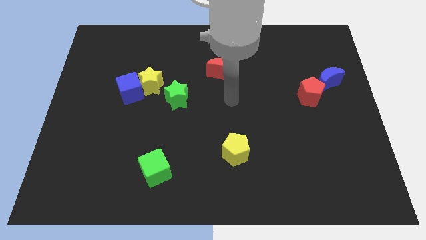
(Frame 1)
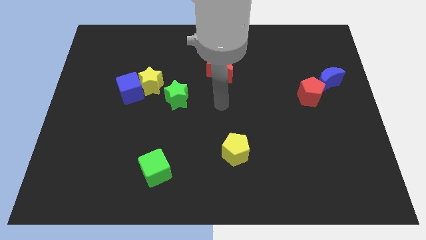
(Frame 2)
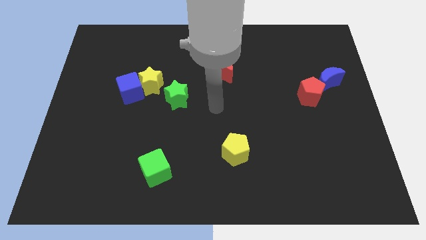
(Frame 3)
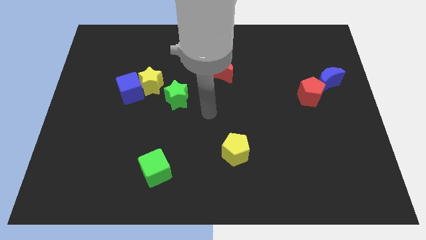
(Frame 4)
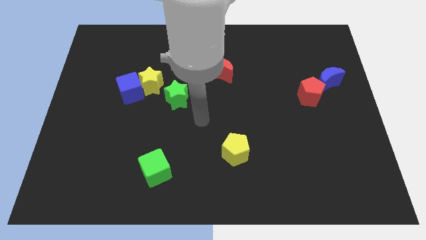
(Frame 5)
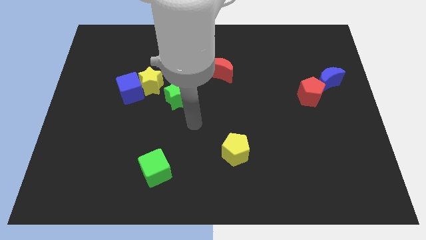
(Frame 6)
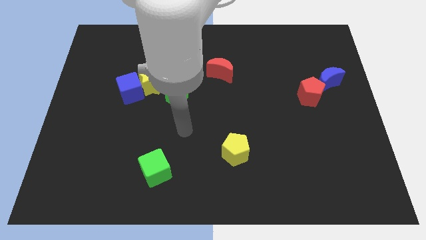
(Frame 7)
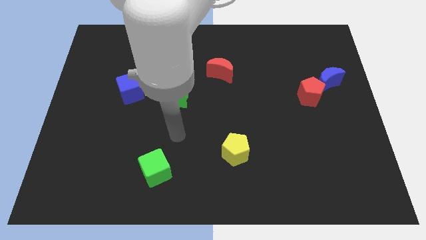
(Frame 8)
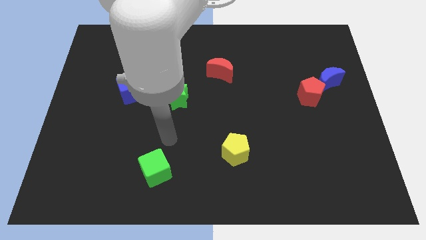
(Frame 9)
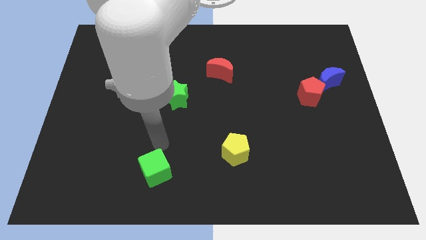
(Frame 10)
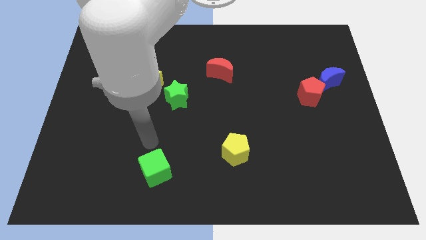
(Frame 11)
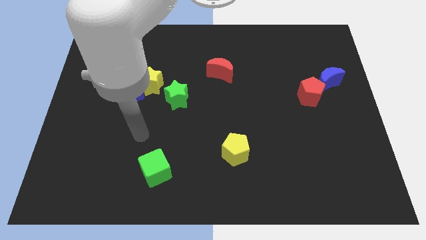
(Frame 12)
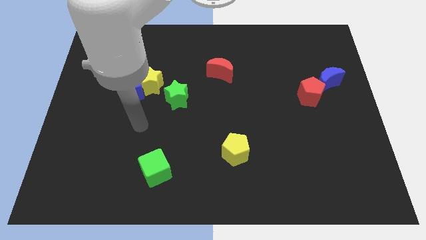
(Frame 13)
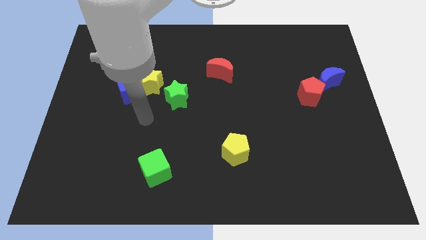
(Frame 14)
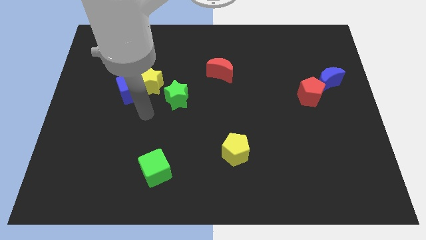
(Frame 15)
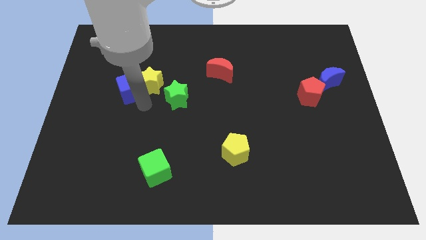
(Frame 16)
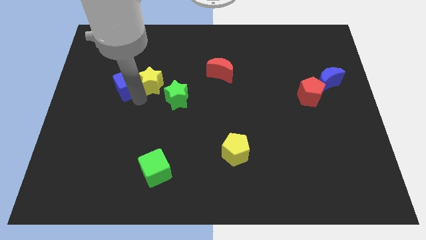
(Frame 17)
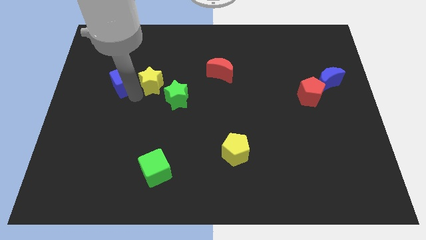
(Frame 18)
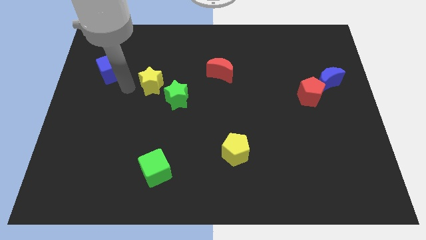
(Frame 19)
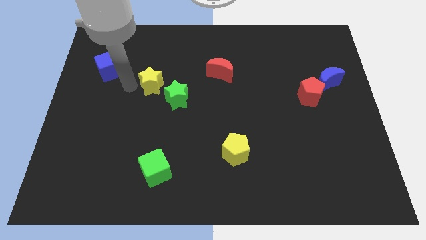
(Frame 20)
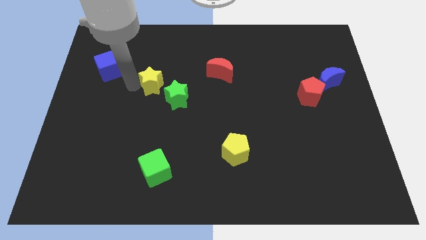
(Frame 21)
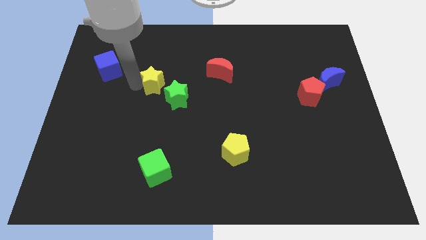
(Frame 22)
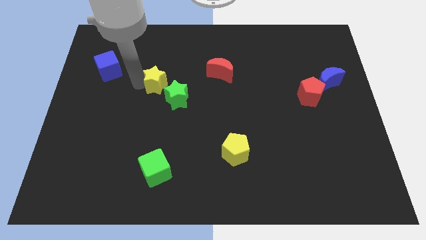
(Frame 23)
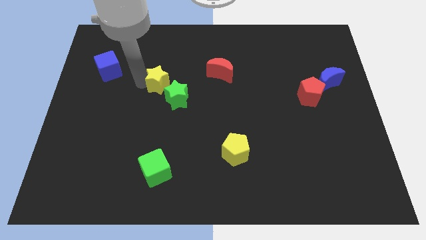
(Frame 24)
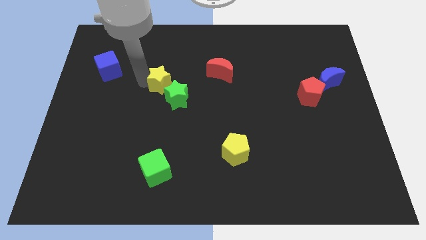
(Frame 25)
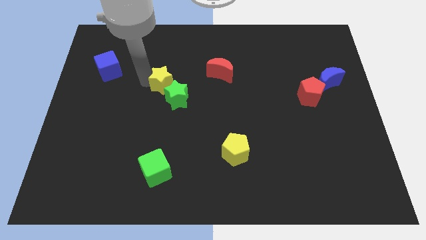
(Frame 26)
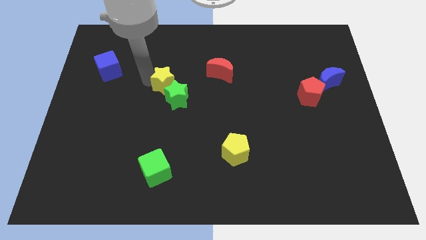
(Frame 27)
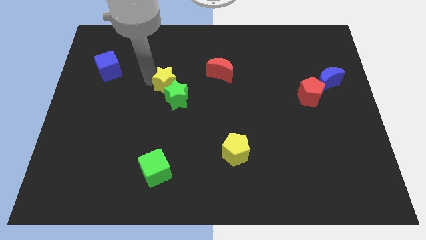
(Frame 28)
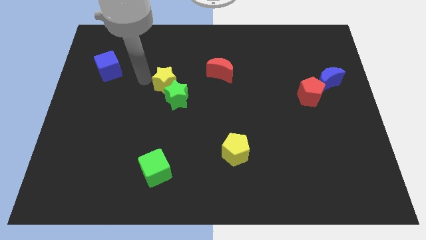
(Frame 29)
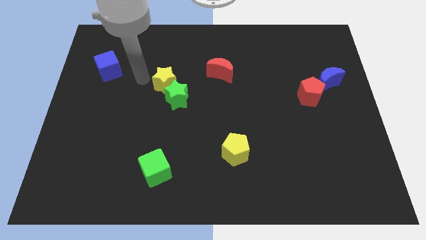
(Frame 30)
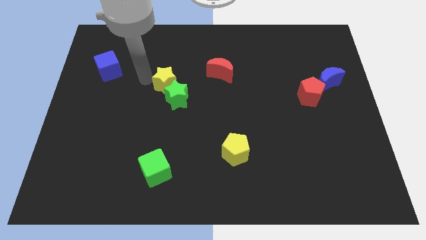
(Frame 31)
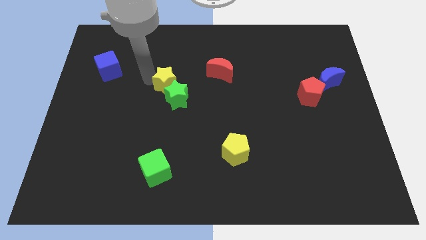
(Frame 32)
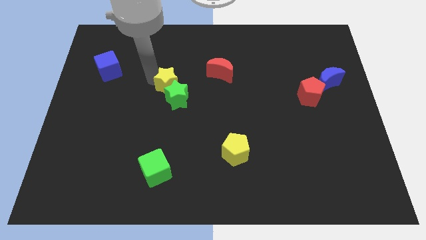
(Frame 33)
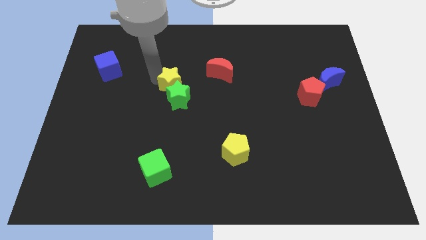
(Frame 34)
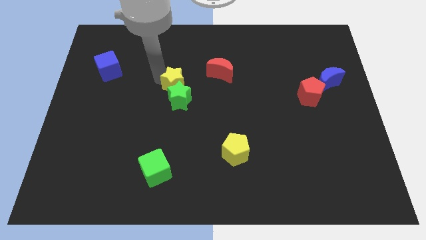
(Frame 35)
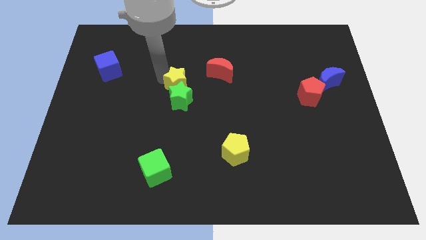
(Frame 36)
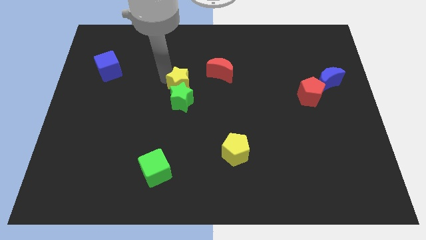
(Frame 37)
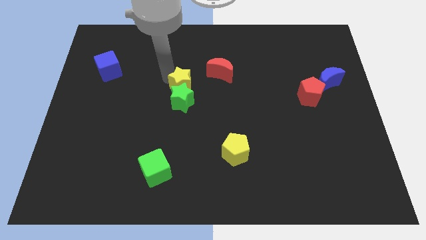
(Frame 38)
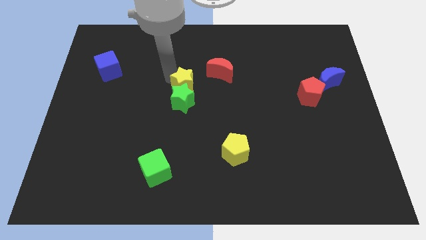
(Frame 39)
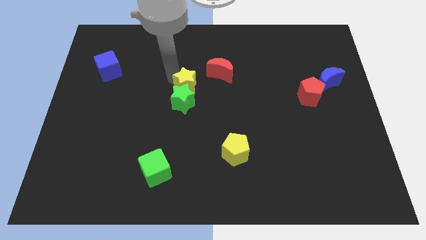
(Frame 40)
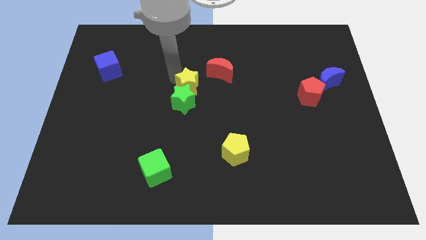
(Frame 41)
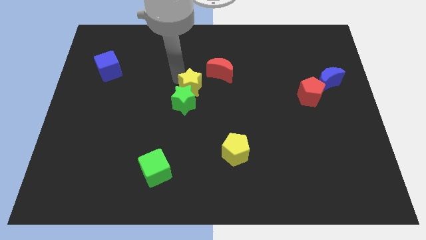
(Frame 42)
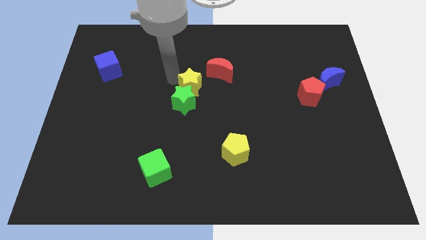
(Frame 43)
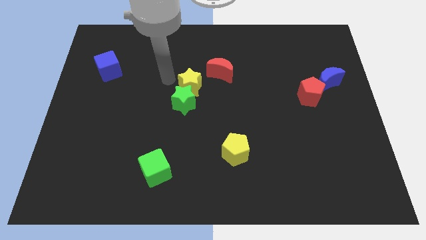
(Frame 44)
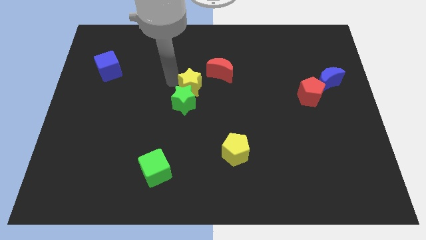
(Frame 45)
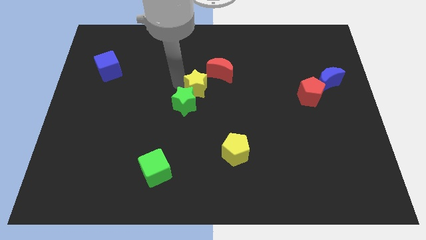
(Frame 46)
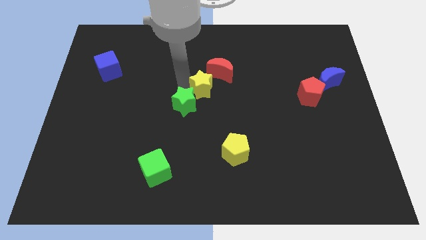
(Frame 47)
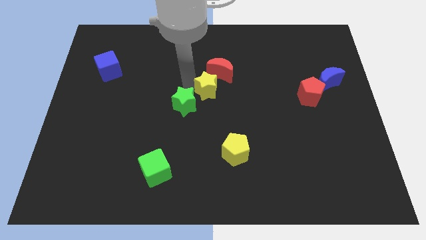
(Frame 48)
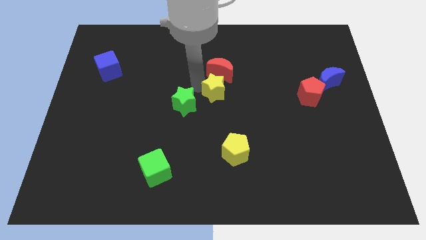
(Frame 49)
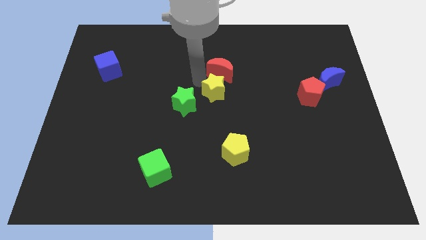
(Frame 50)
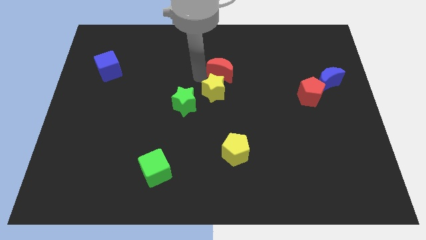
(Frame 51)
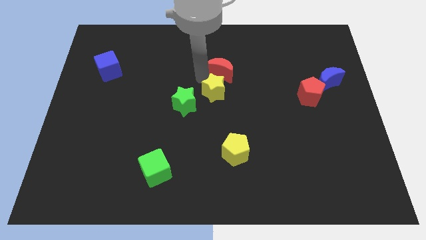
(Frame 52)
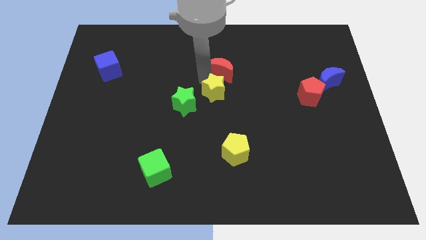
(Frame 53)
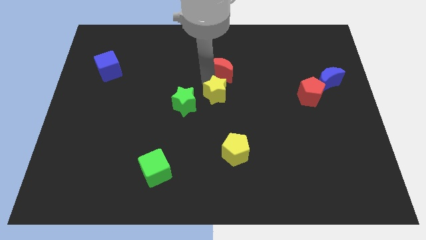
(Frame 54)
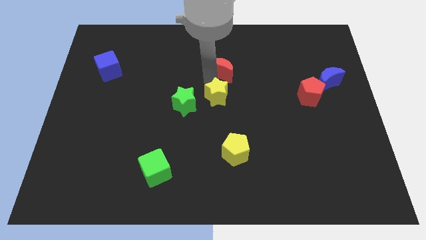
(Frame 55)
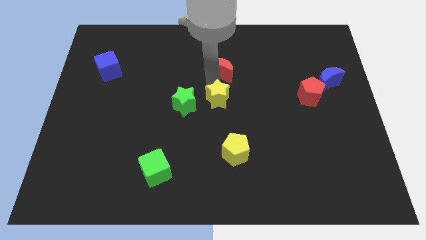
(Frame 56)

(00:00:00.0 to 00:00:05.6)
push the yellow star above the yellow pentagon

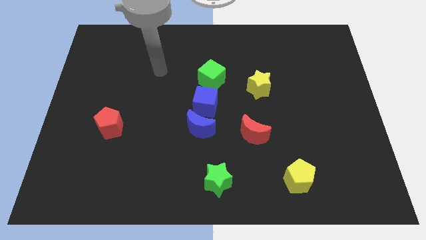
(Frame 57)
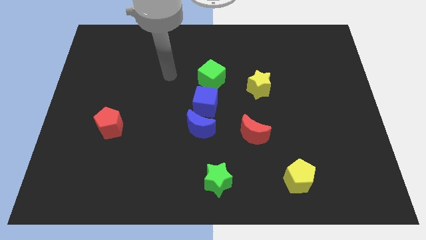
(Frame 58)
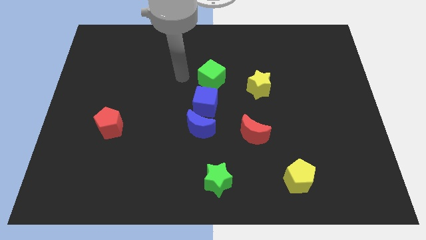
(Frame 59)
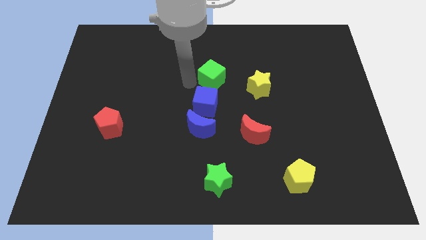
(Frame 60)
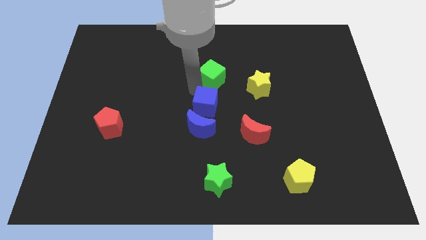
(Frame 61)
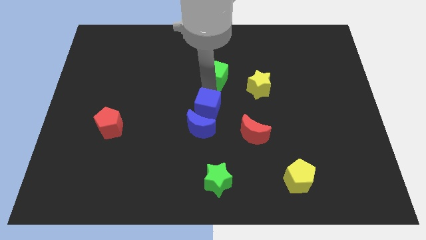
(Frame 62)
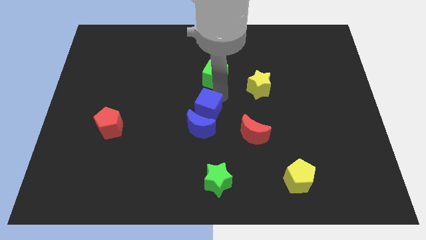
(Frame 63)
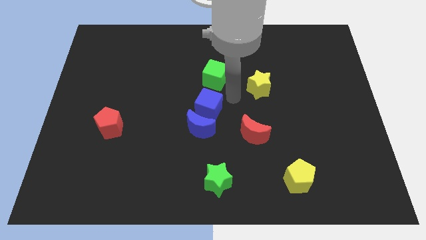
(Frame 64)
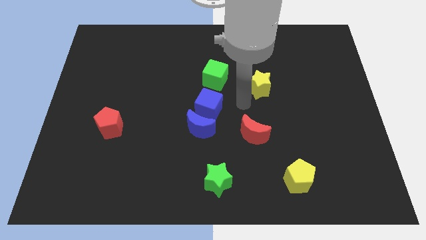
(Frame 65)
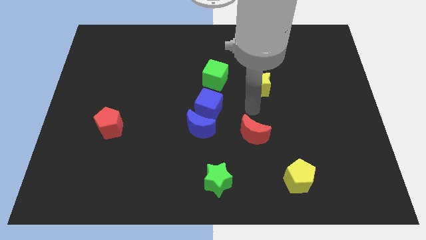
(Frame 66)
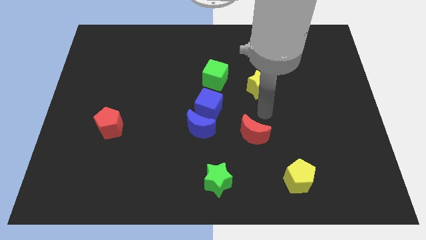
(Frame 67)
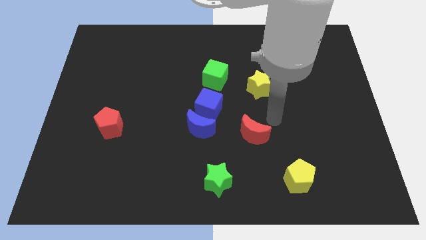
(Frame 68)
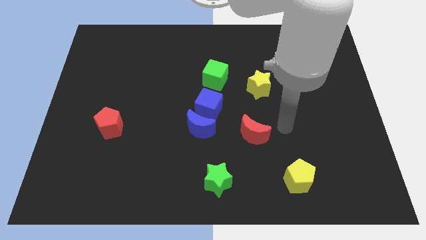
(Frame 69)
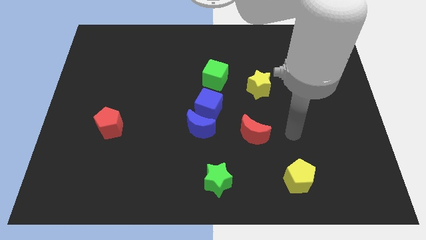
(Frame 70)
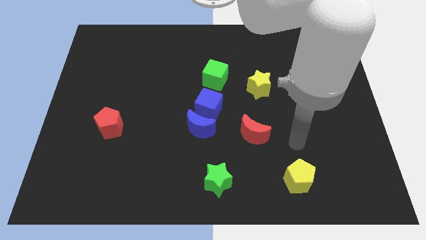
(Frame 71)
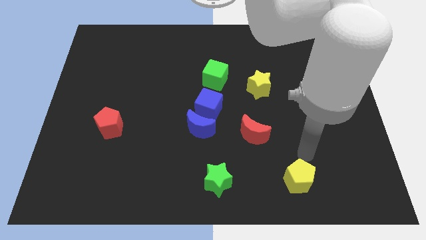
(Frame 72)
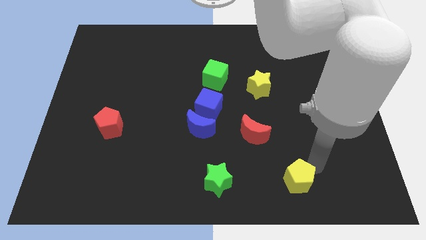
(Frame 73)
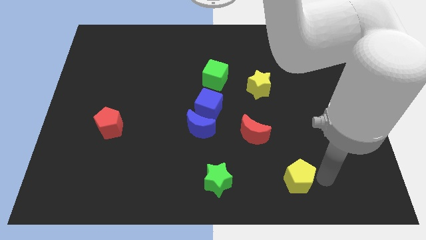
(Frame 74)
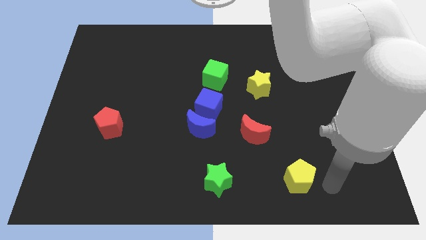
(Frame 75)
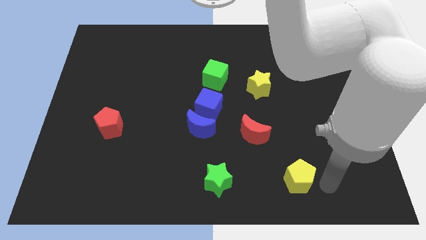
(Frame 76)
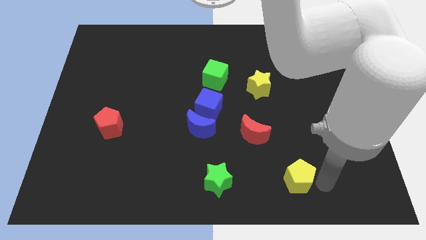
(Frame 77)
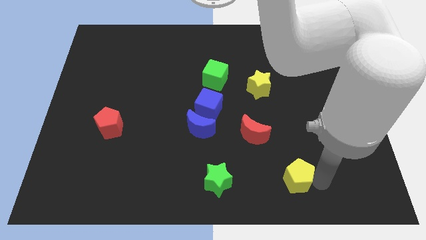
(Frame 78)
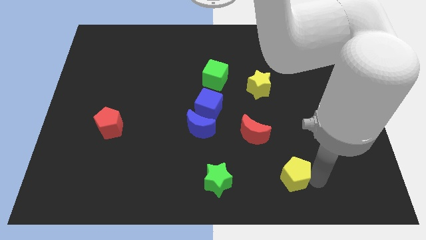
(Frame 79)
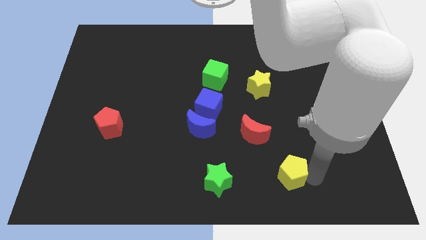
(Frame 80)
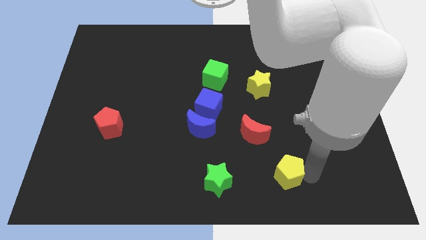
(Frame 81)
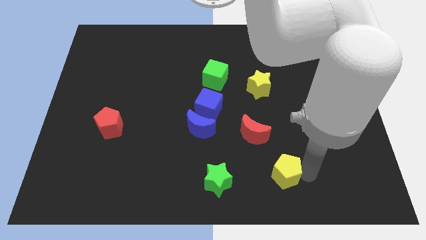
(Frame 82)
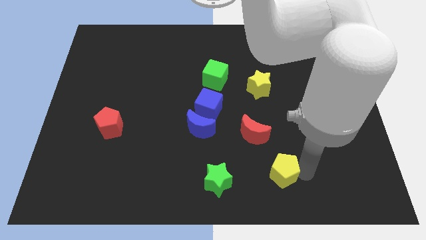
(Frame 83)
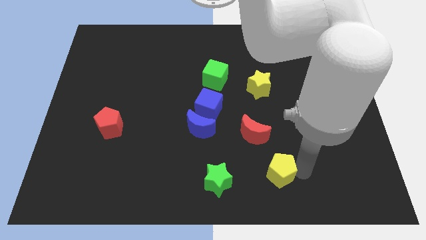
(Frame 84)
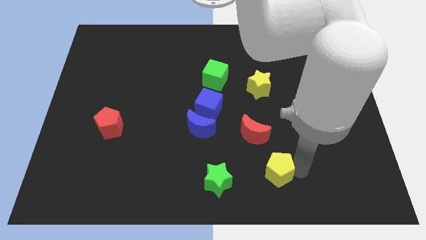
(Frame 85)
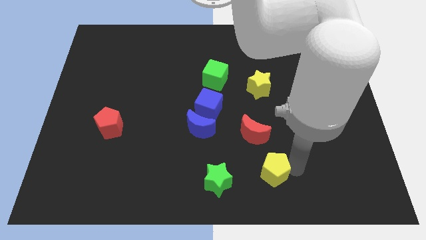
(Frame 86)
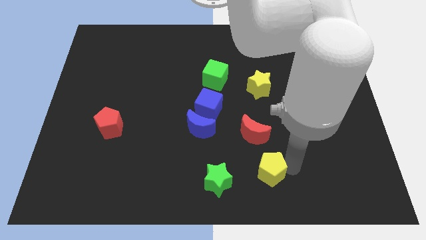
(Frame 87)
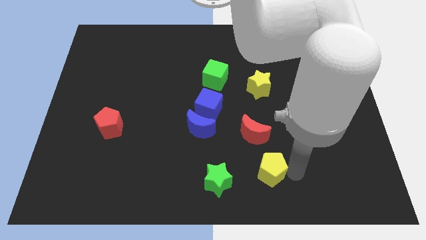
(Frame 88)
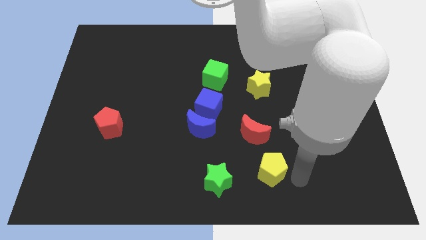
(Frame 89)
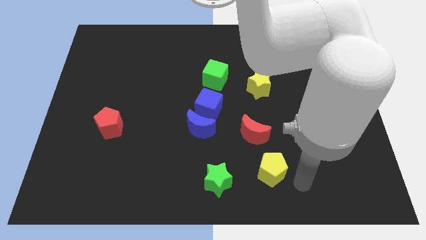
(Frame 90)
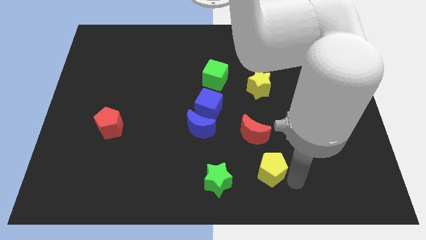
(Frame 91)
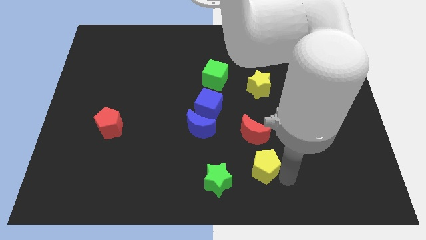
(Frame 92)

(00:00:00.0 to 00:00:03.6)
move the yellow pentagon to the top right of the green star
